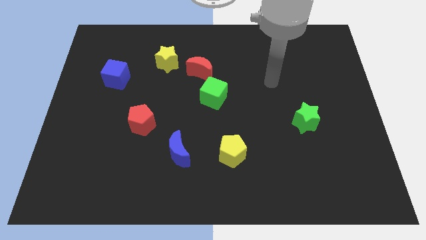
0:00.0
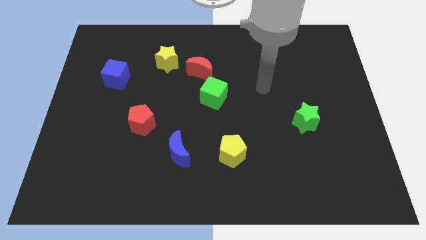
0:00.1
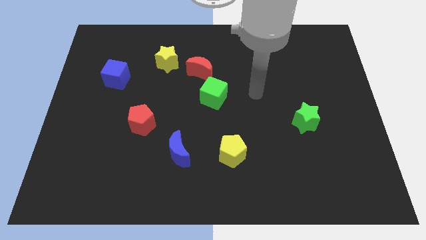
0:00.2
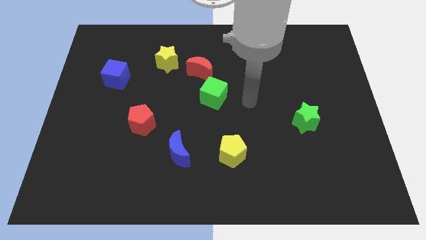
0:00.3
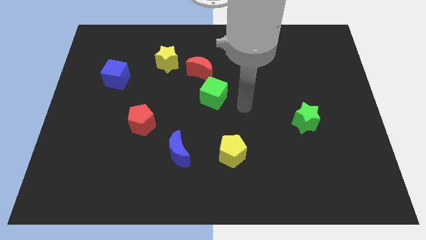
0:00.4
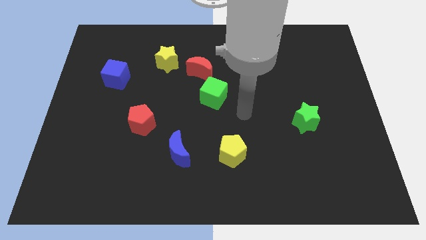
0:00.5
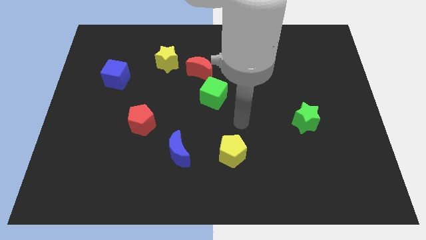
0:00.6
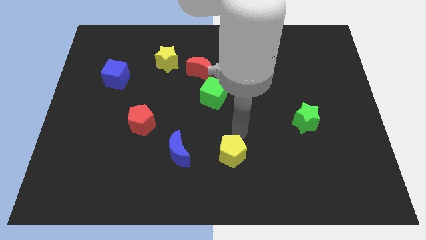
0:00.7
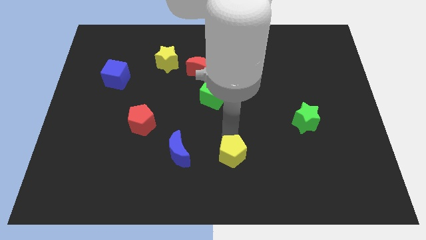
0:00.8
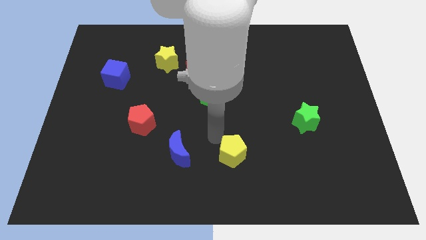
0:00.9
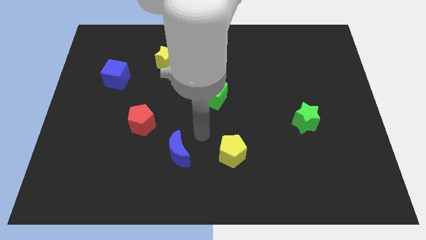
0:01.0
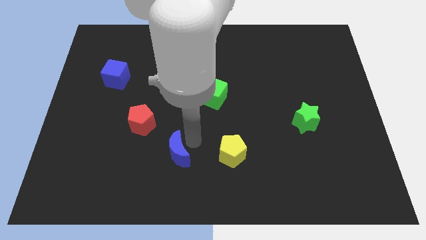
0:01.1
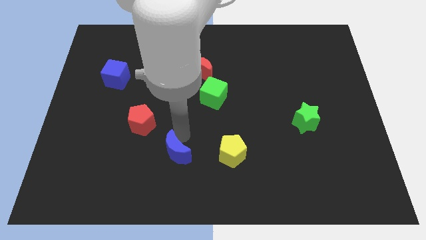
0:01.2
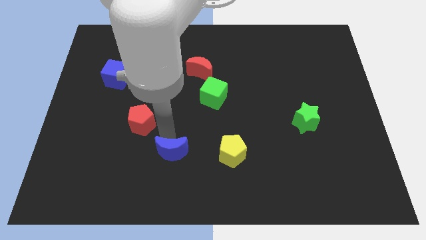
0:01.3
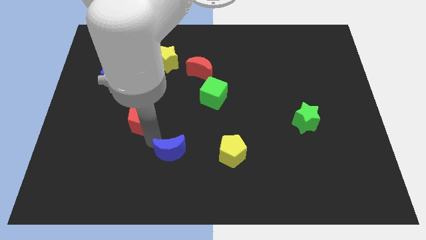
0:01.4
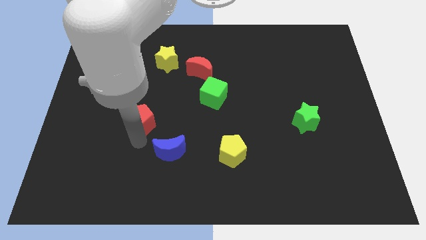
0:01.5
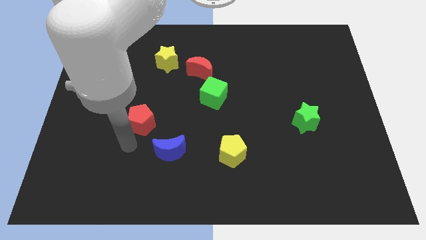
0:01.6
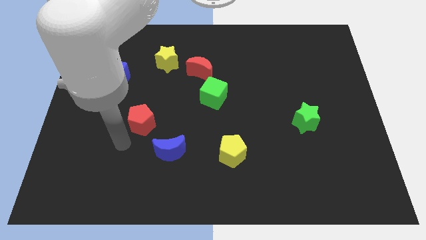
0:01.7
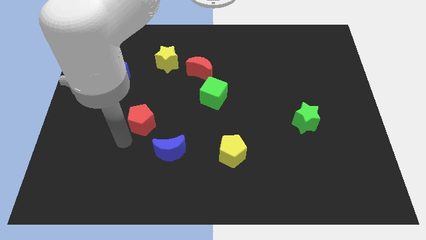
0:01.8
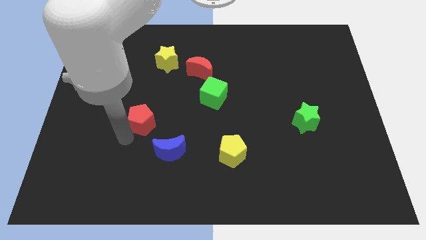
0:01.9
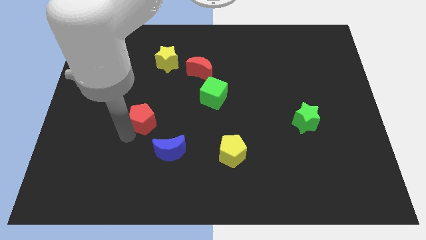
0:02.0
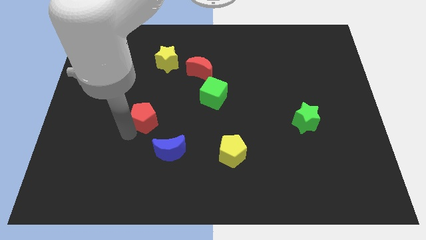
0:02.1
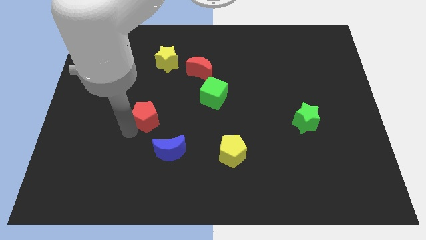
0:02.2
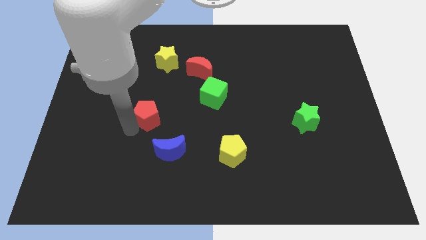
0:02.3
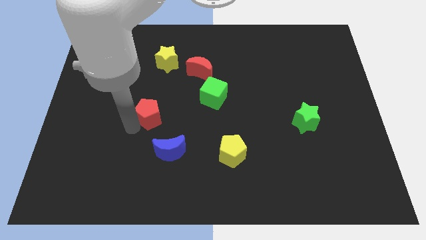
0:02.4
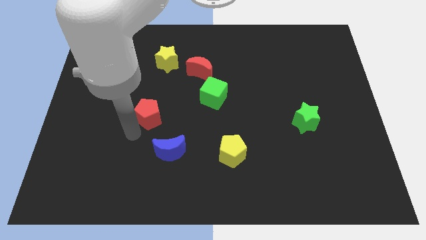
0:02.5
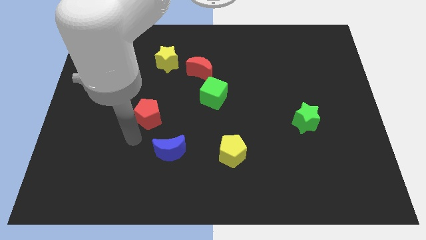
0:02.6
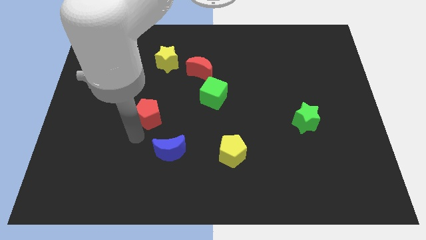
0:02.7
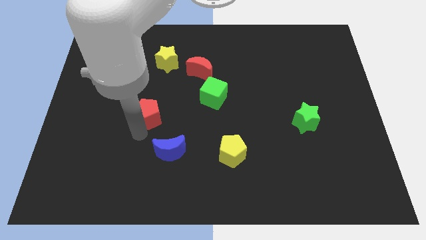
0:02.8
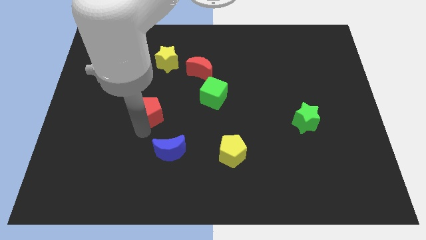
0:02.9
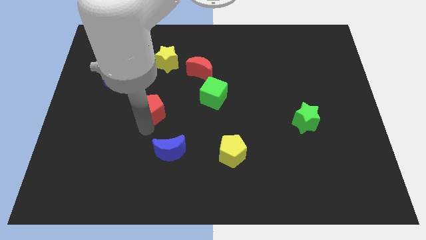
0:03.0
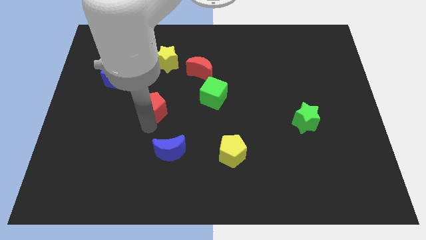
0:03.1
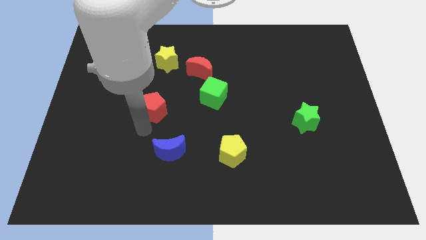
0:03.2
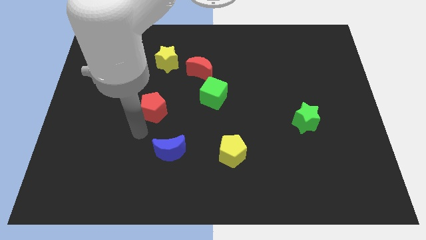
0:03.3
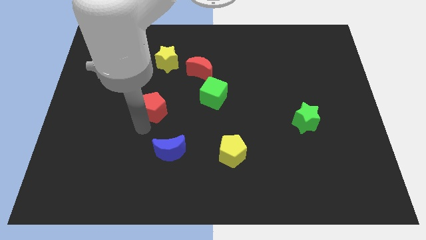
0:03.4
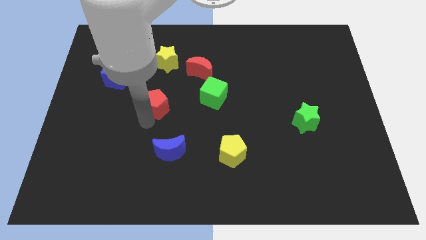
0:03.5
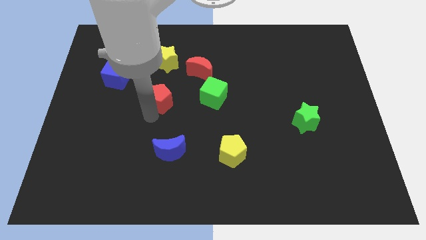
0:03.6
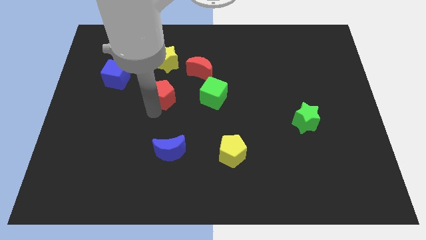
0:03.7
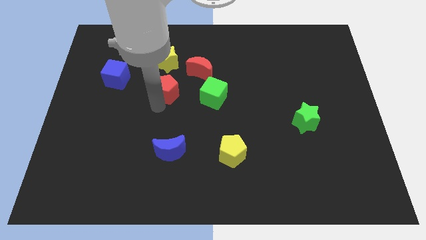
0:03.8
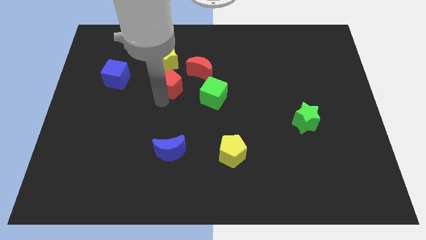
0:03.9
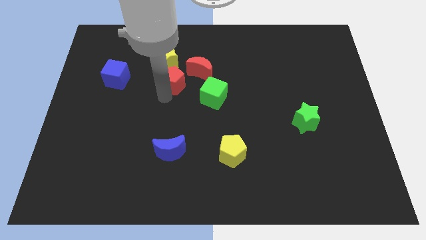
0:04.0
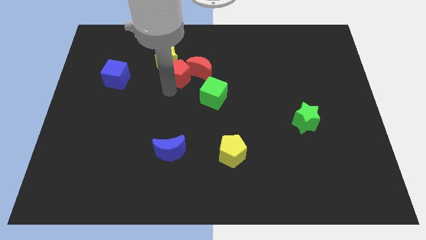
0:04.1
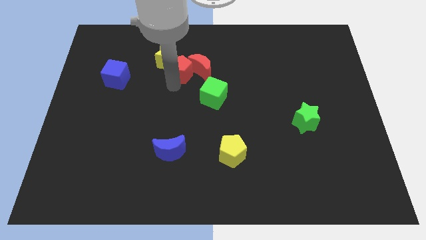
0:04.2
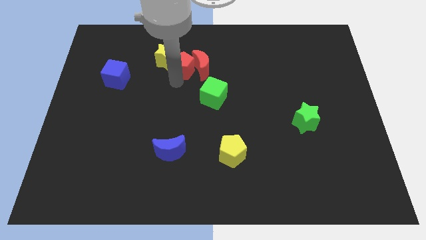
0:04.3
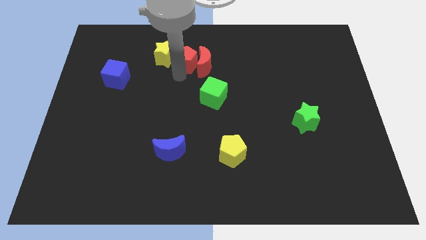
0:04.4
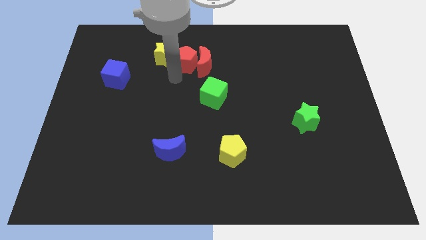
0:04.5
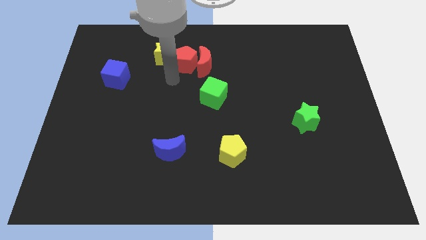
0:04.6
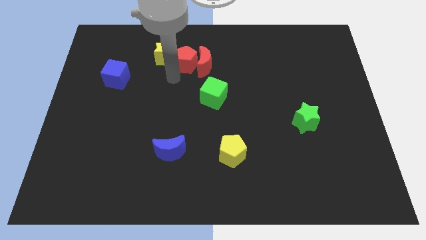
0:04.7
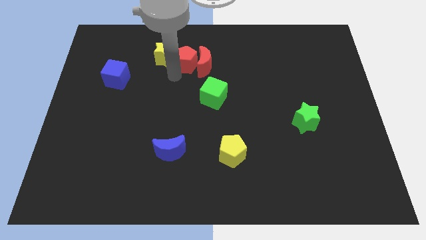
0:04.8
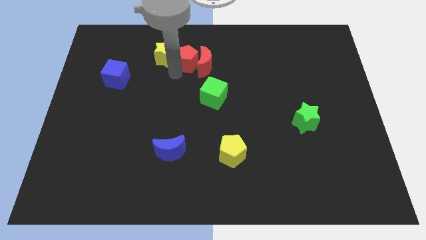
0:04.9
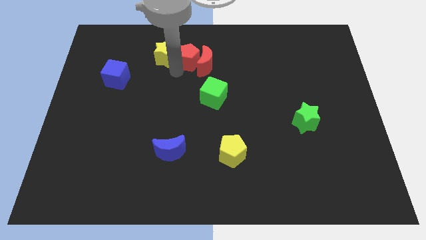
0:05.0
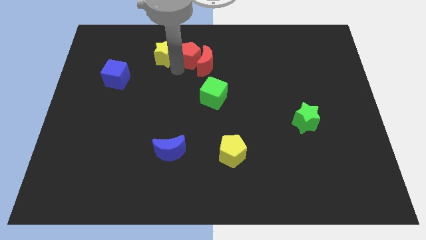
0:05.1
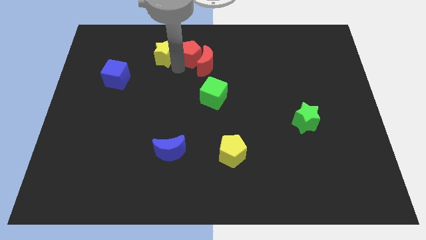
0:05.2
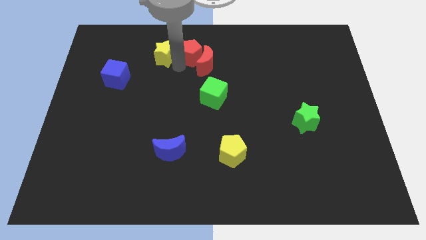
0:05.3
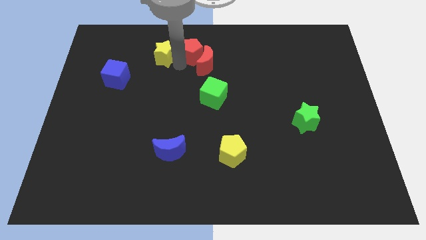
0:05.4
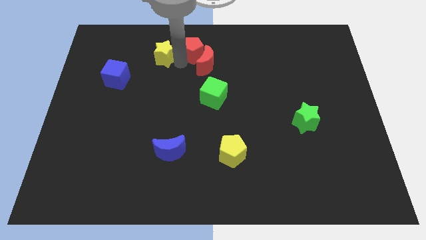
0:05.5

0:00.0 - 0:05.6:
push the red pentagon to the towards your base

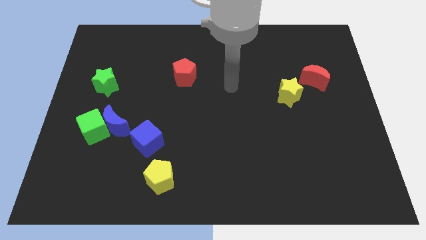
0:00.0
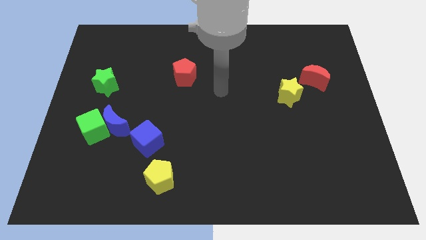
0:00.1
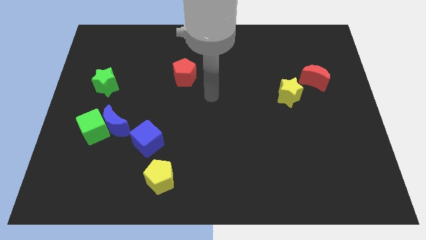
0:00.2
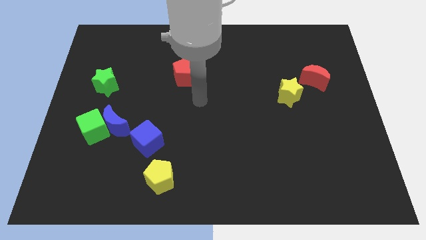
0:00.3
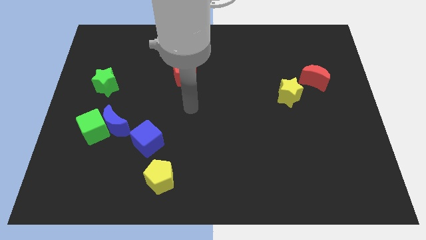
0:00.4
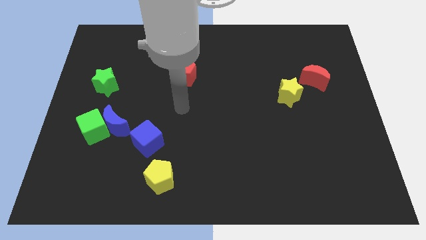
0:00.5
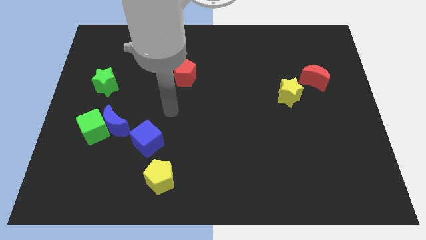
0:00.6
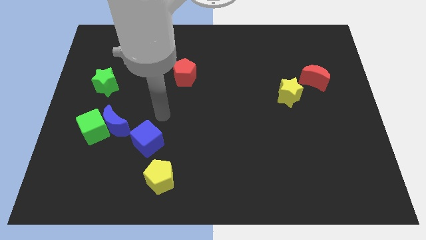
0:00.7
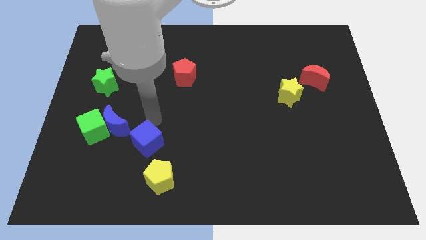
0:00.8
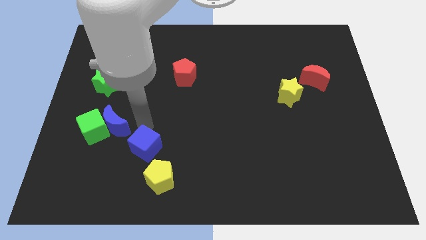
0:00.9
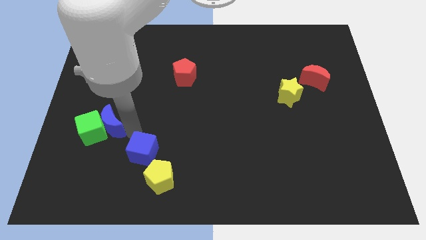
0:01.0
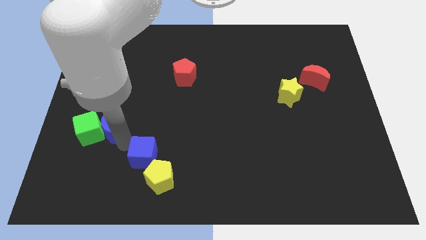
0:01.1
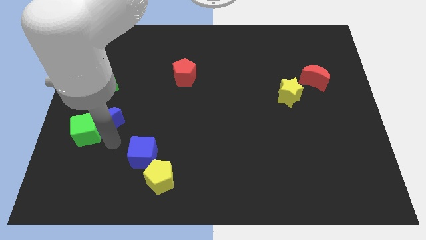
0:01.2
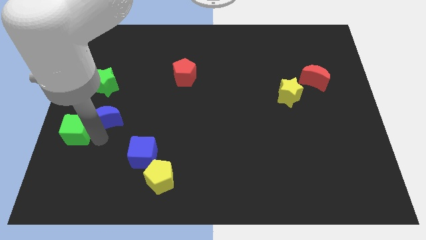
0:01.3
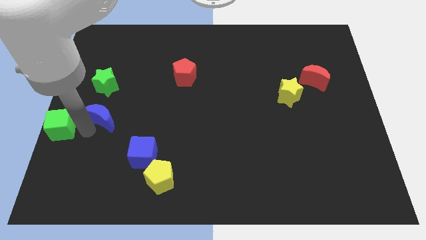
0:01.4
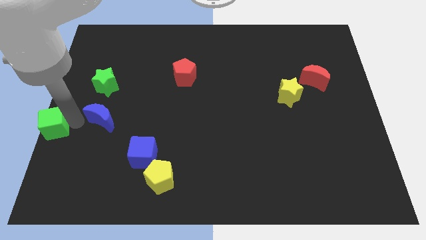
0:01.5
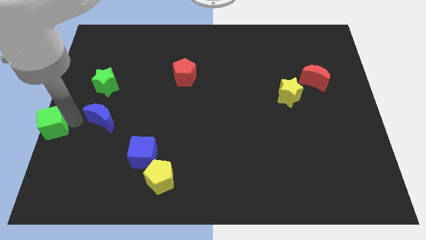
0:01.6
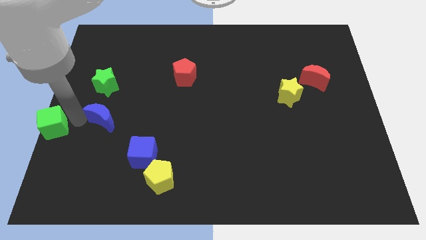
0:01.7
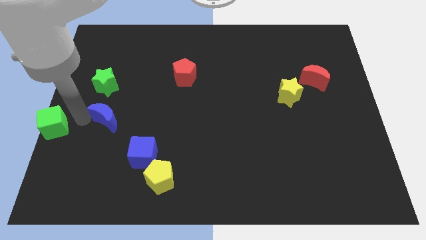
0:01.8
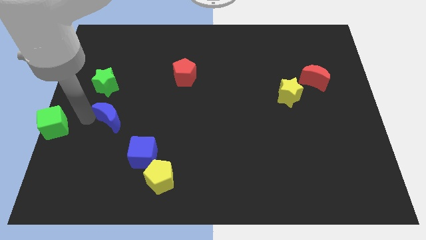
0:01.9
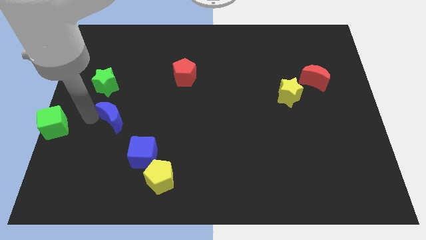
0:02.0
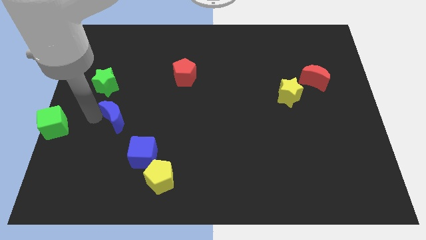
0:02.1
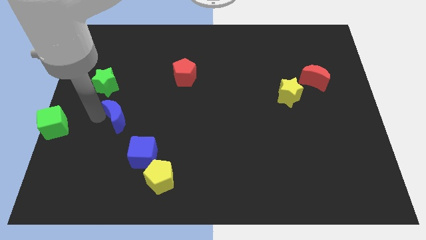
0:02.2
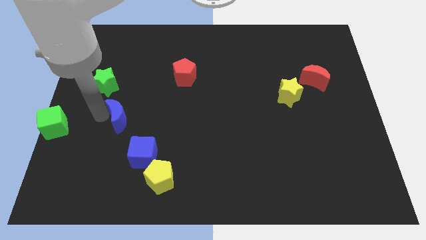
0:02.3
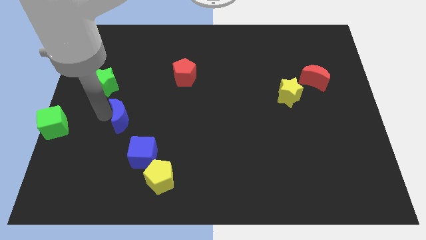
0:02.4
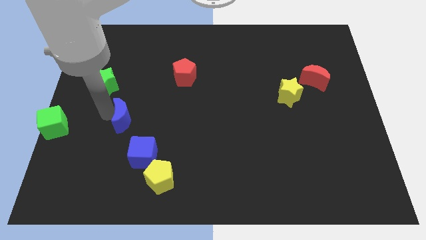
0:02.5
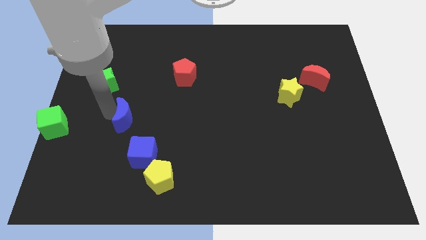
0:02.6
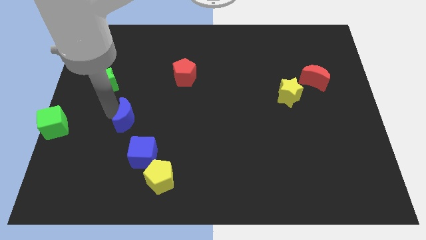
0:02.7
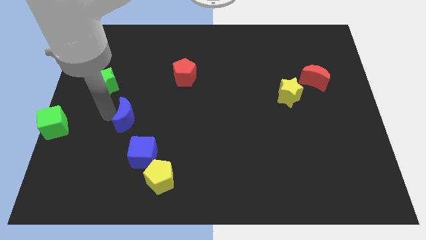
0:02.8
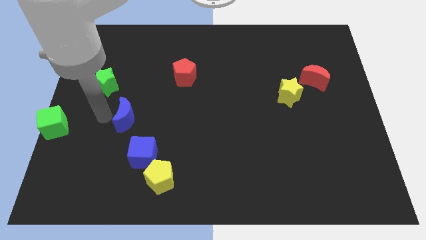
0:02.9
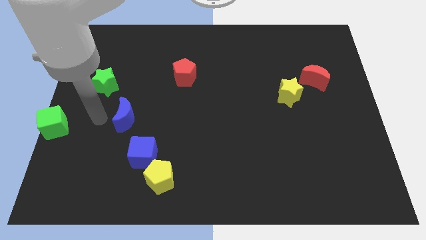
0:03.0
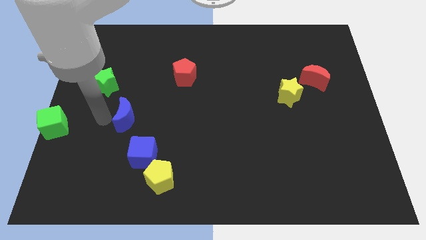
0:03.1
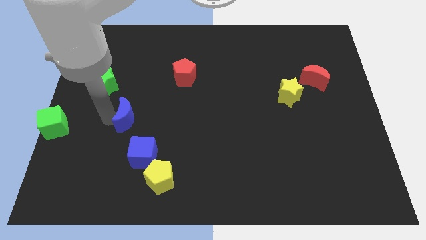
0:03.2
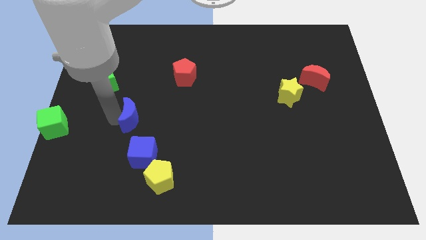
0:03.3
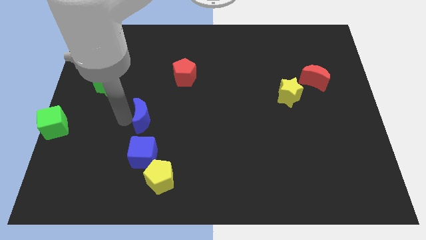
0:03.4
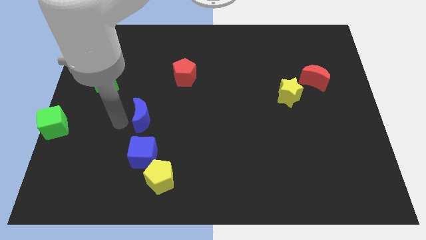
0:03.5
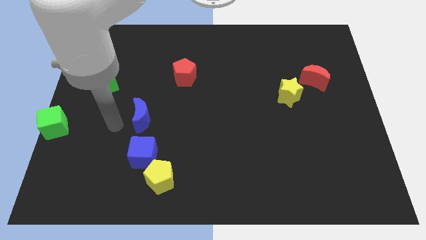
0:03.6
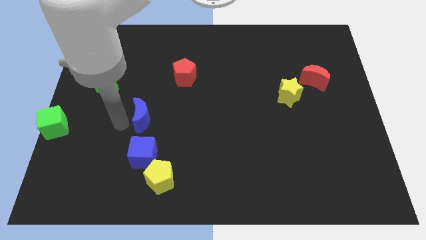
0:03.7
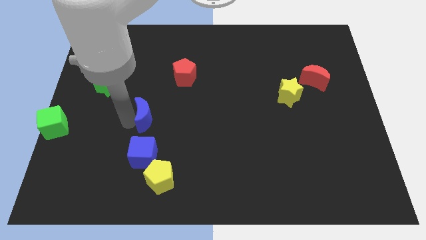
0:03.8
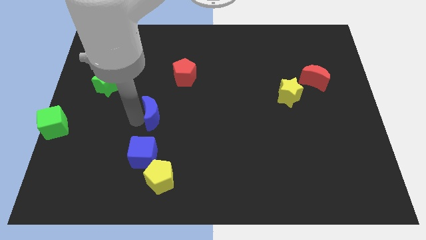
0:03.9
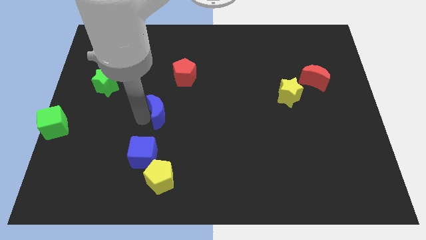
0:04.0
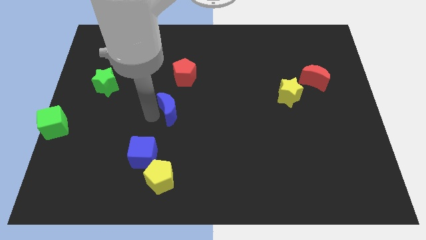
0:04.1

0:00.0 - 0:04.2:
move the blue moon to the middle of the board
